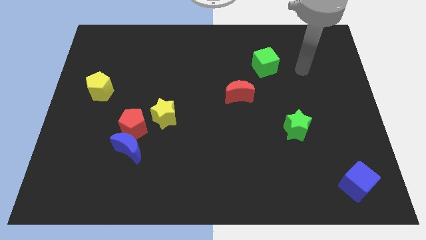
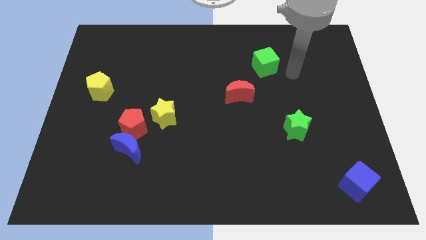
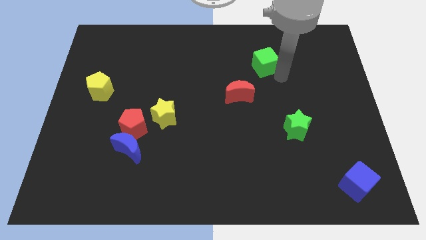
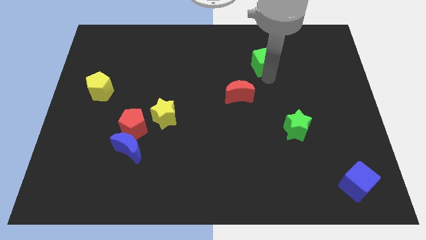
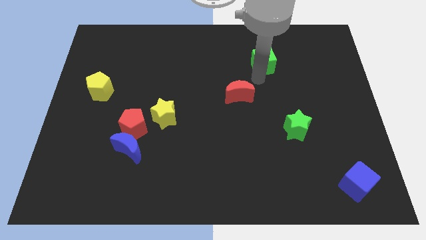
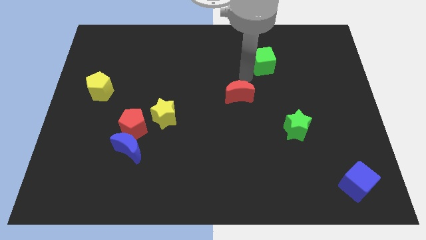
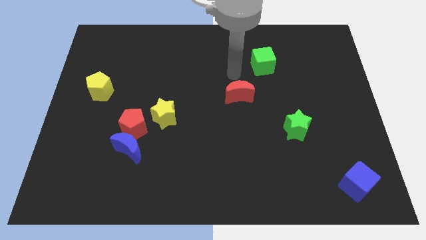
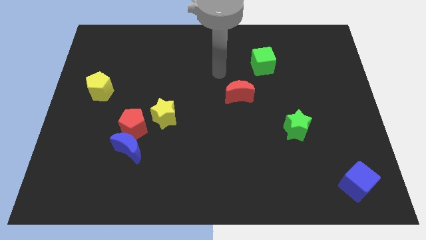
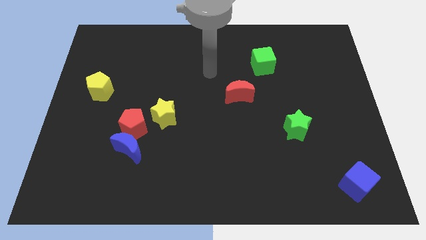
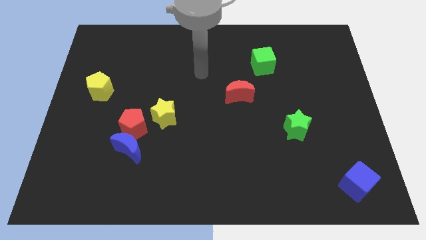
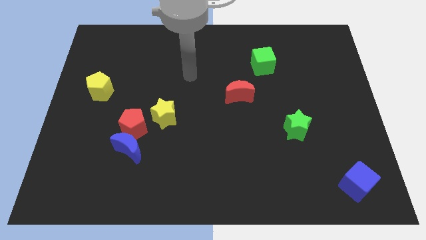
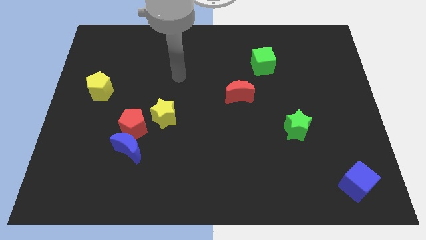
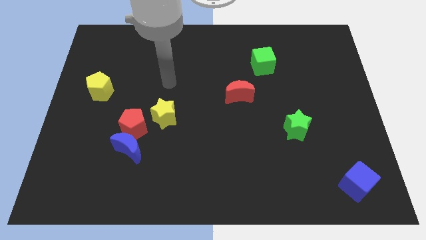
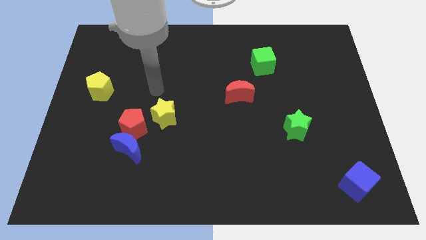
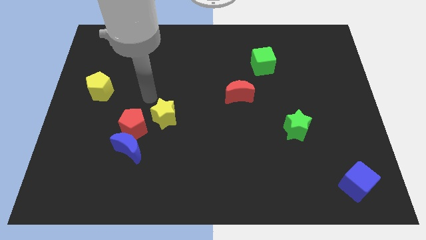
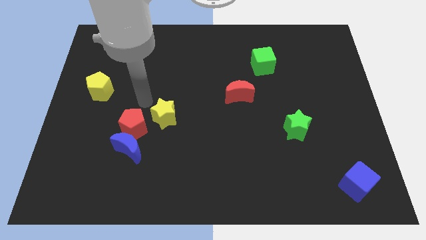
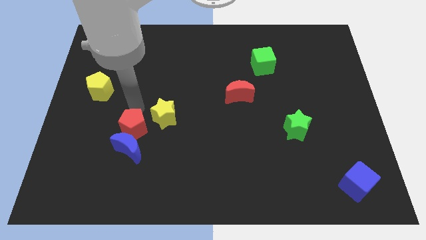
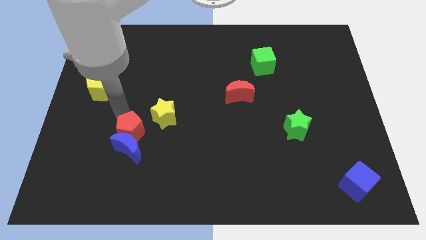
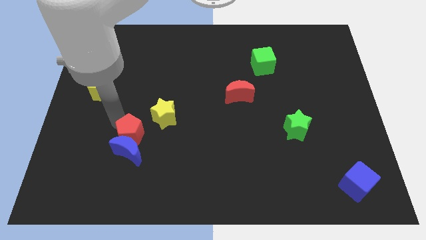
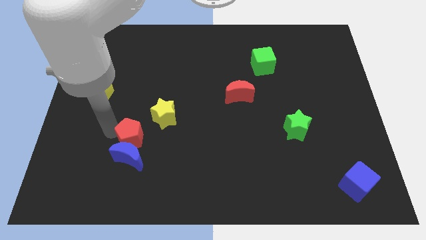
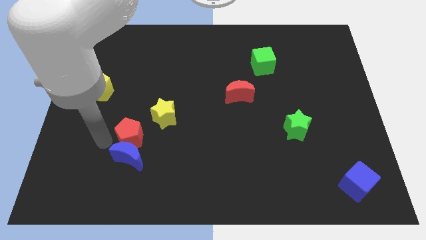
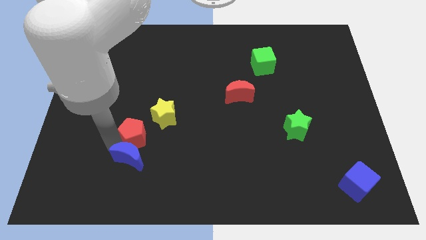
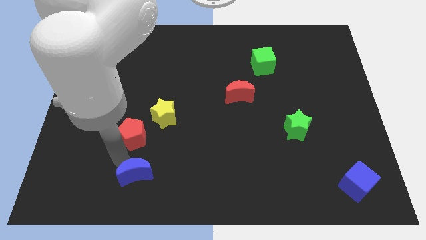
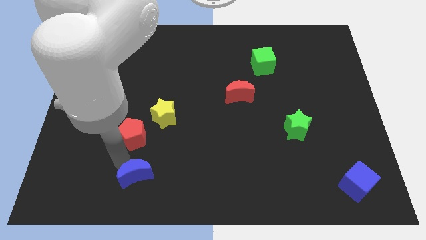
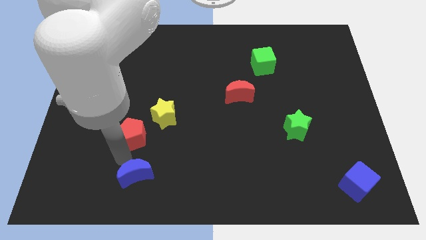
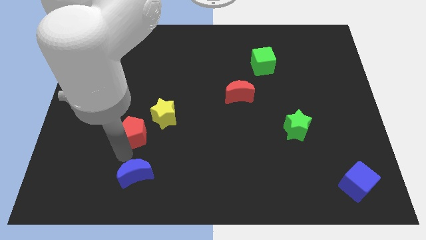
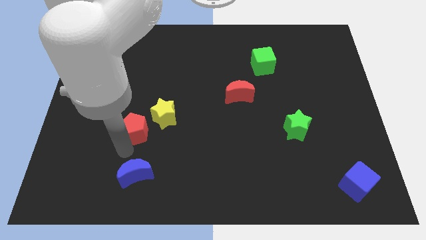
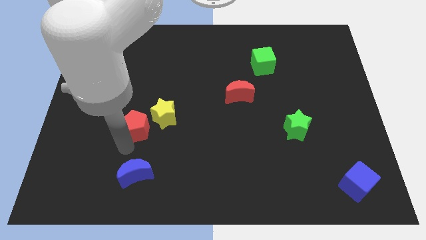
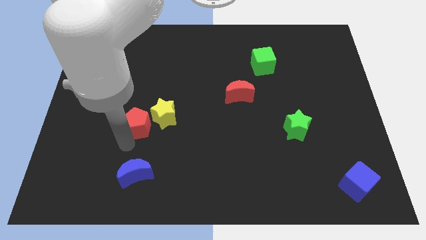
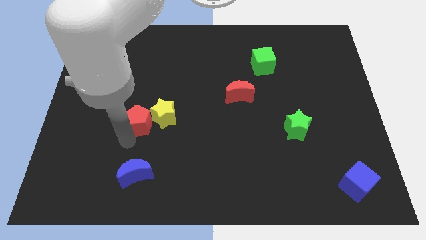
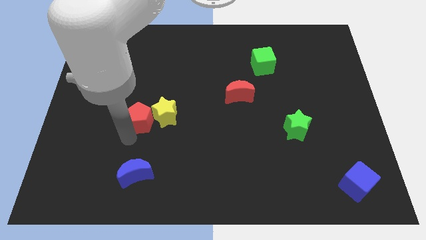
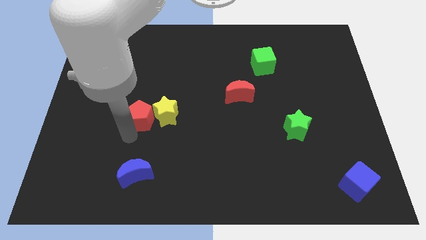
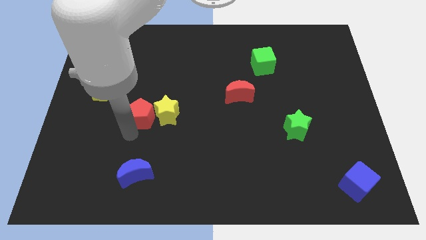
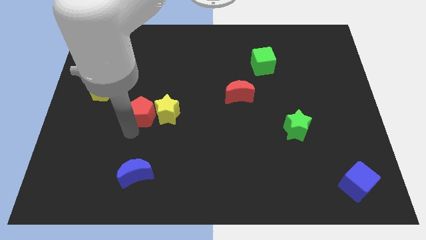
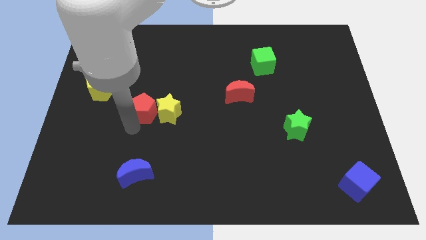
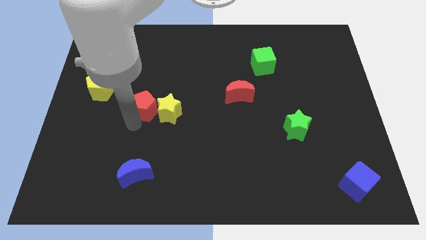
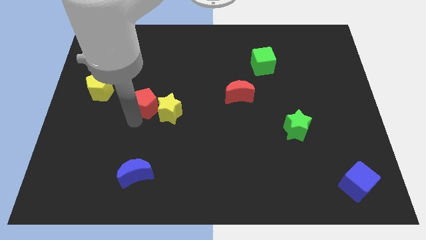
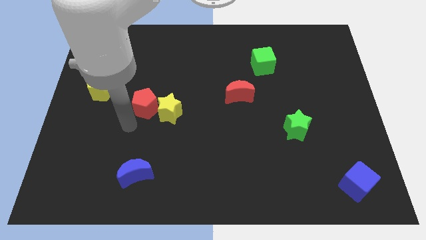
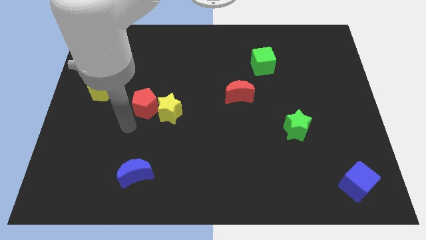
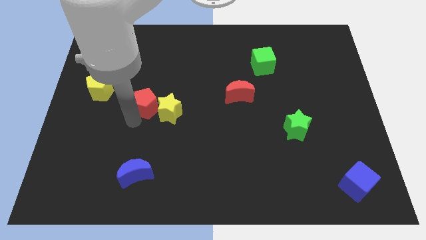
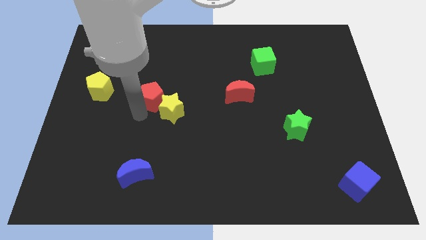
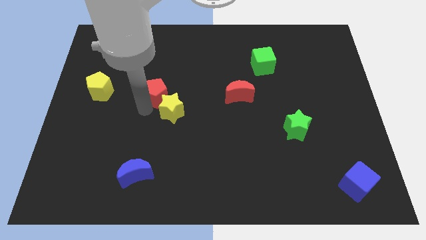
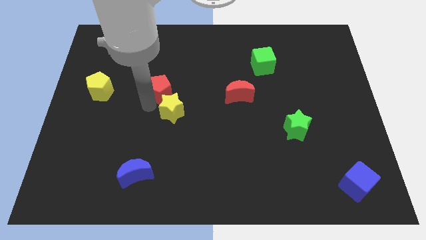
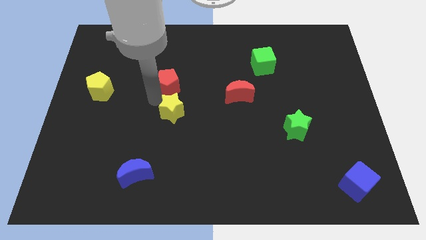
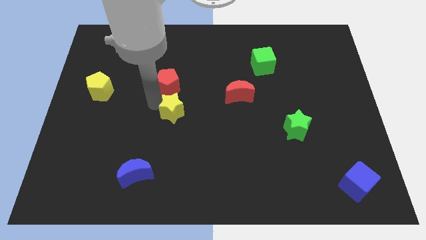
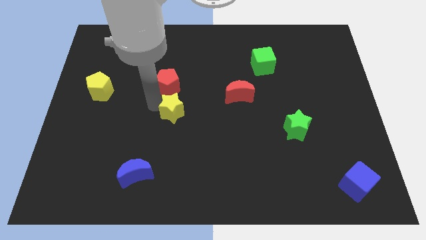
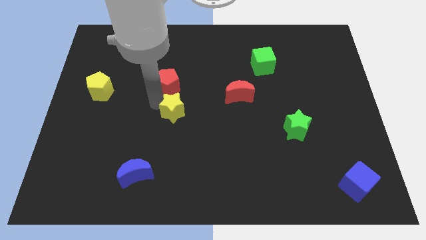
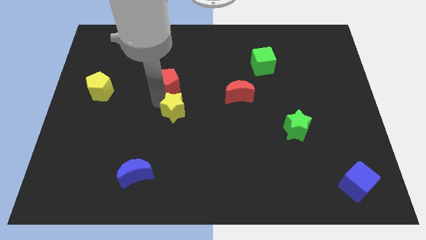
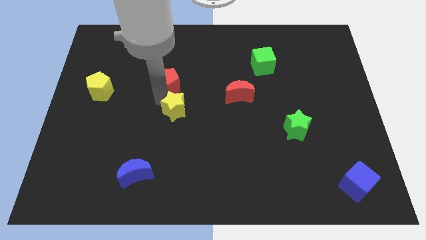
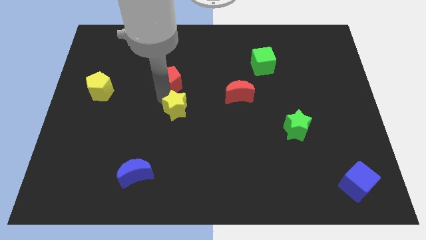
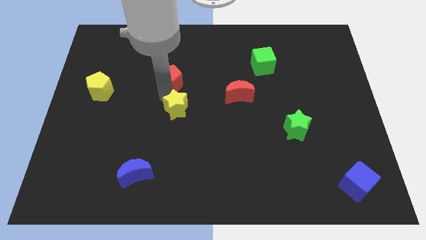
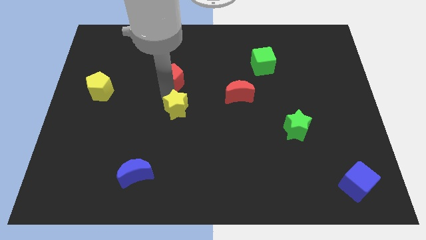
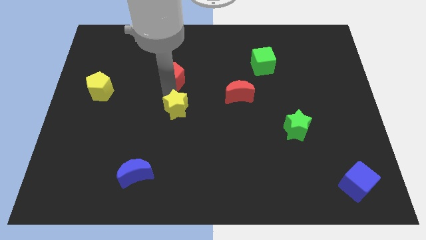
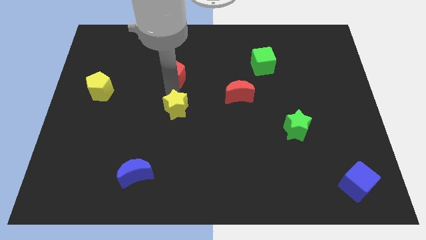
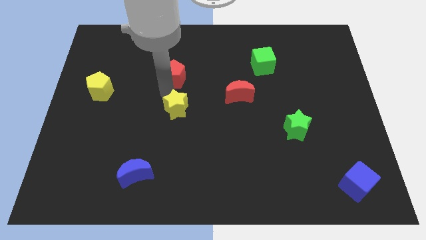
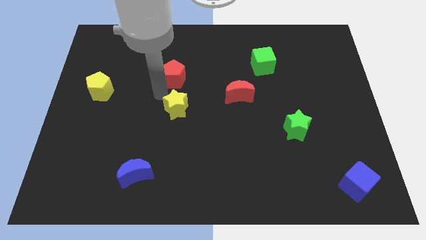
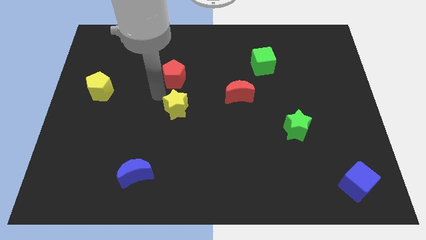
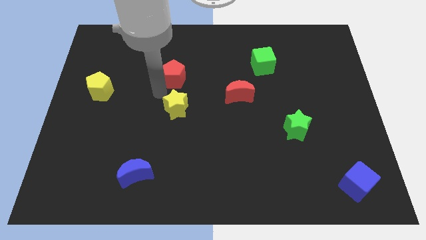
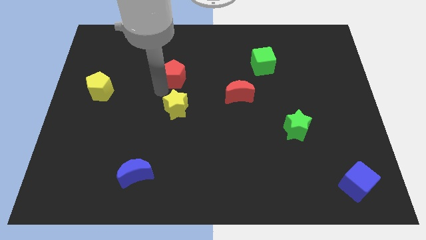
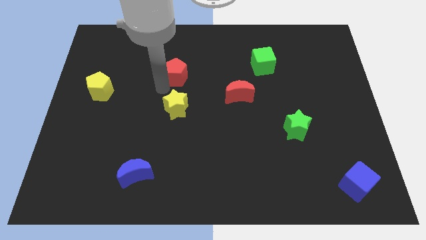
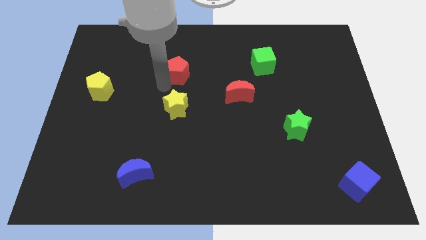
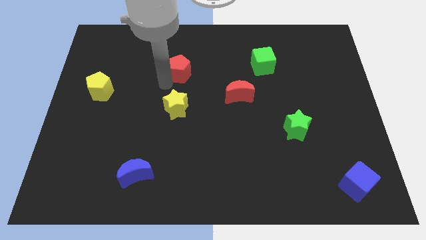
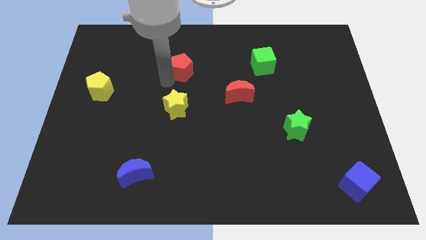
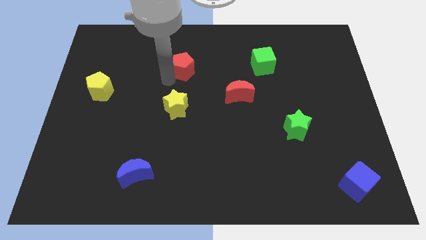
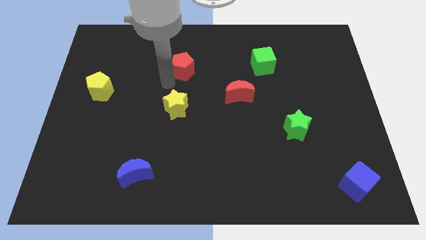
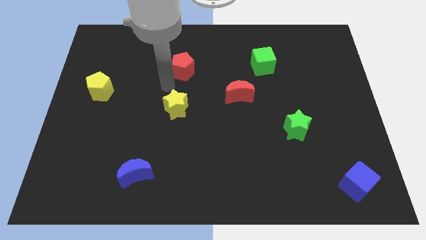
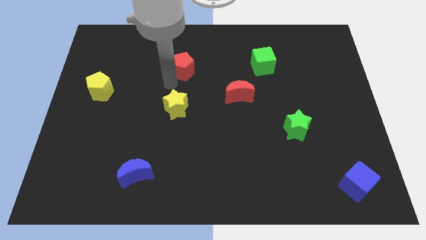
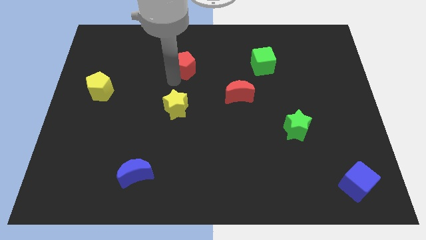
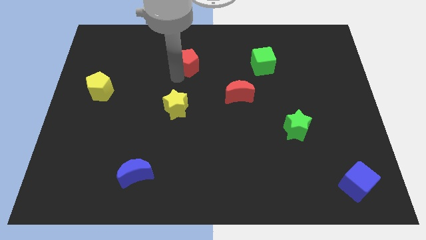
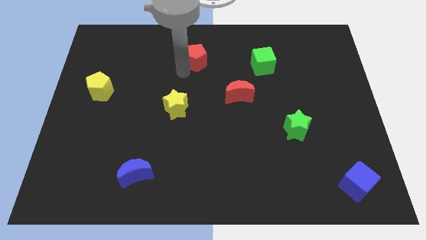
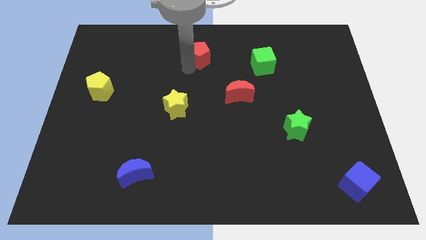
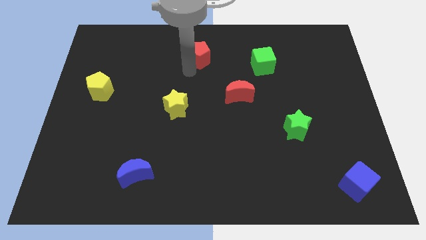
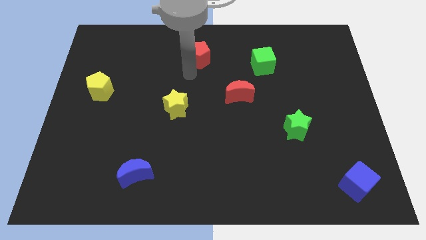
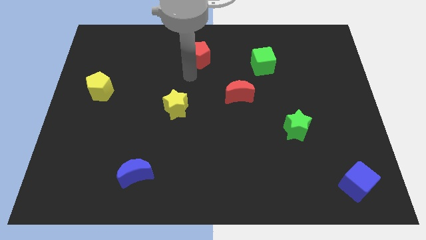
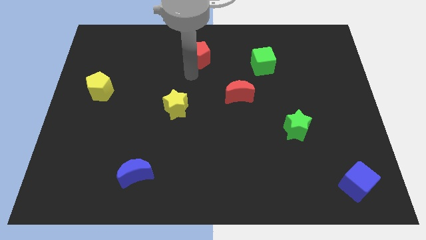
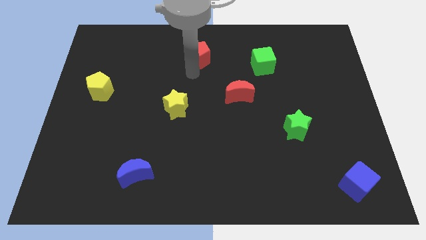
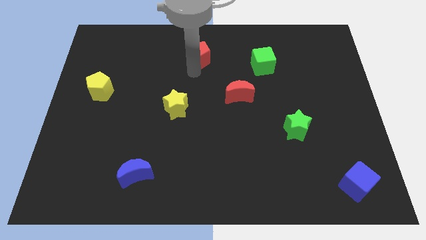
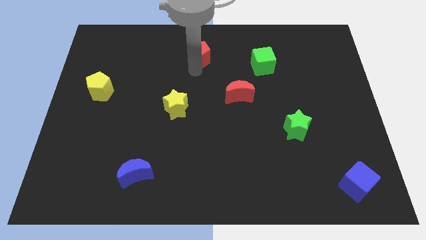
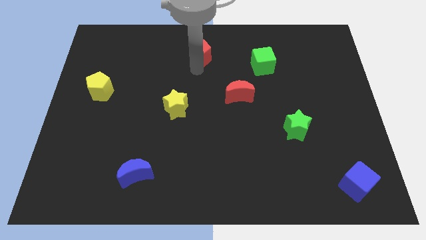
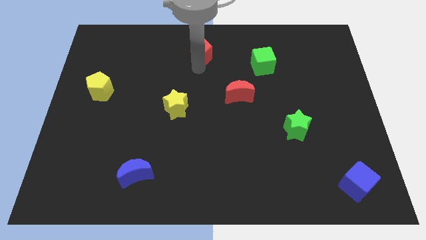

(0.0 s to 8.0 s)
slide the red pentagon to the top side
